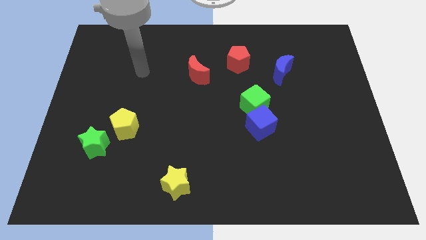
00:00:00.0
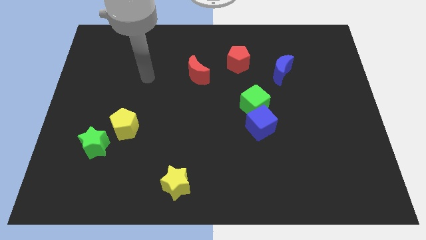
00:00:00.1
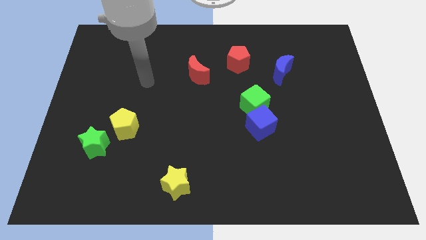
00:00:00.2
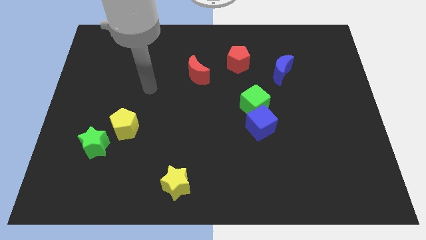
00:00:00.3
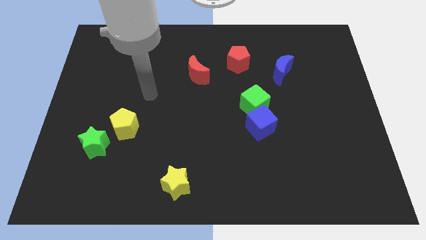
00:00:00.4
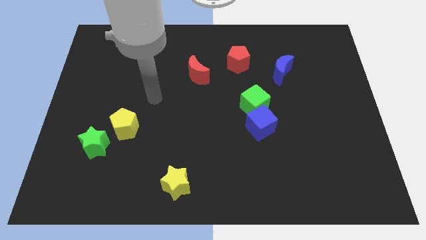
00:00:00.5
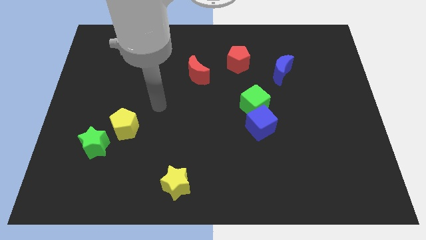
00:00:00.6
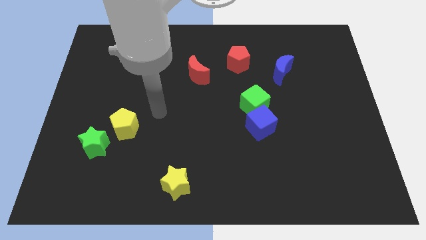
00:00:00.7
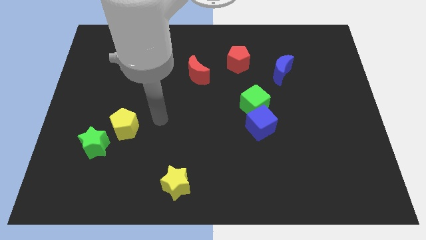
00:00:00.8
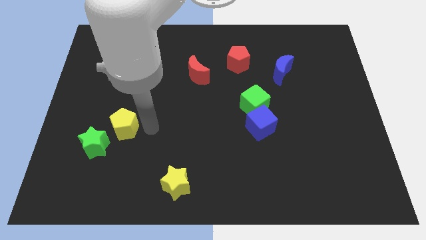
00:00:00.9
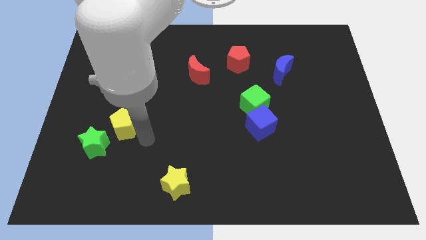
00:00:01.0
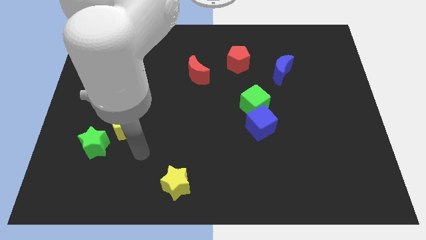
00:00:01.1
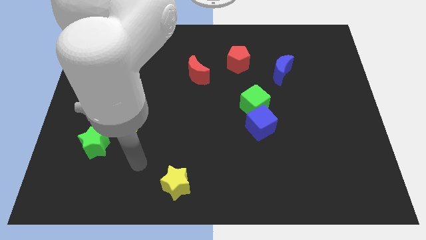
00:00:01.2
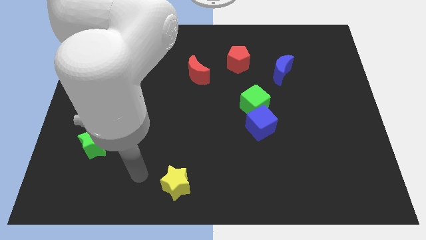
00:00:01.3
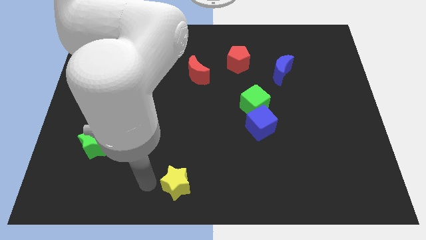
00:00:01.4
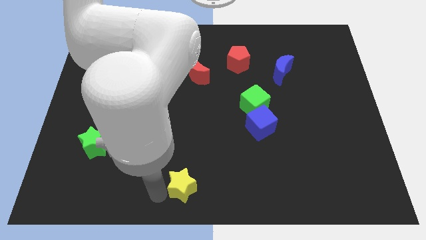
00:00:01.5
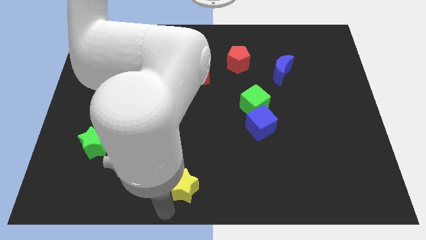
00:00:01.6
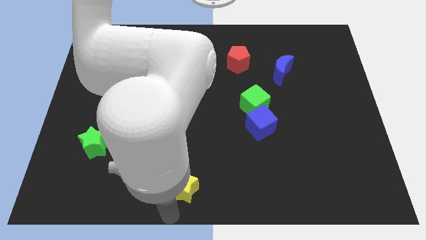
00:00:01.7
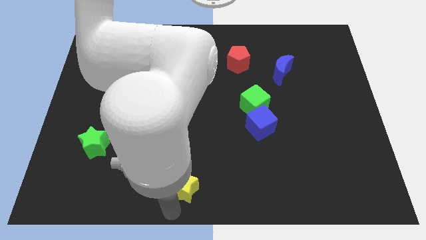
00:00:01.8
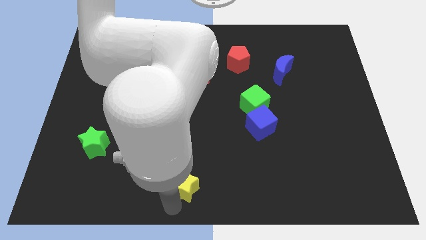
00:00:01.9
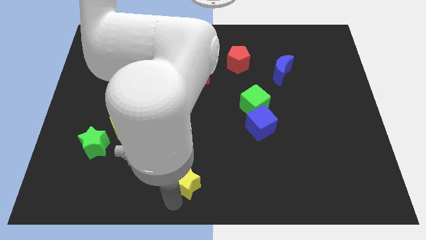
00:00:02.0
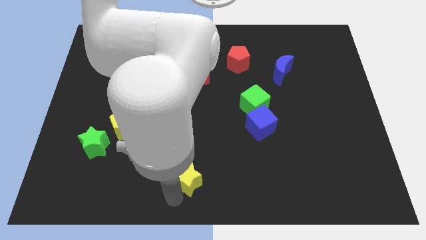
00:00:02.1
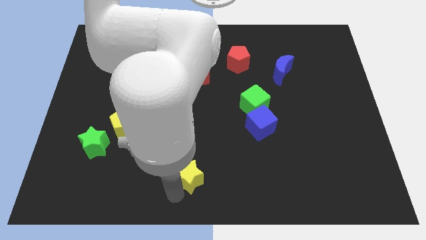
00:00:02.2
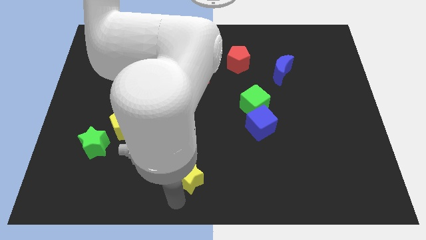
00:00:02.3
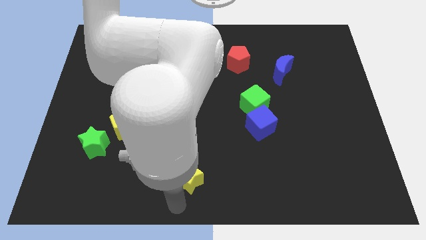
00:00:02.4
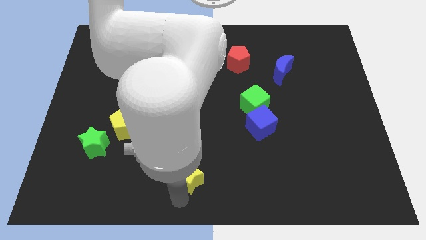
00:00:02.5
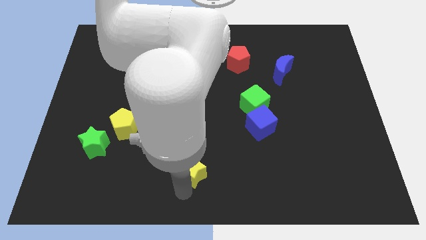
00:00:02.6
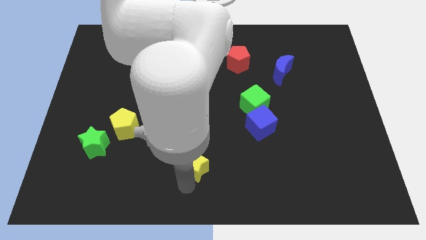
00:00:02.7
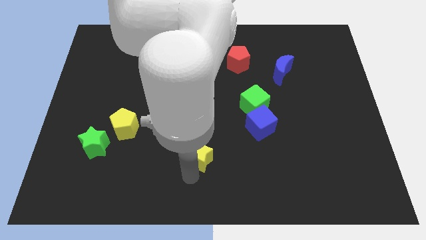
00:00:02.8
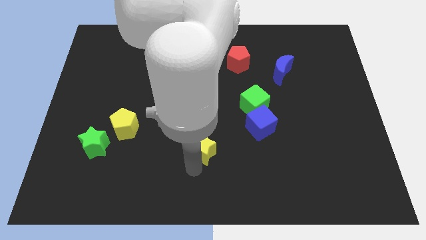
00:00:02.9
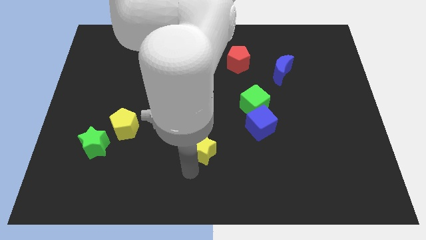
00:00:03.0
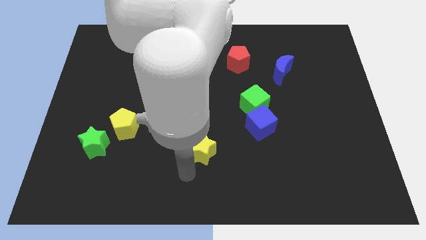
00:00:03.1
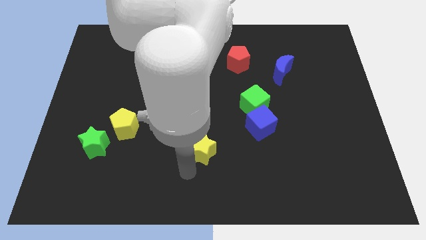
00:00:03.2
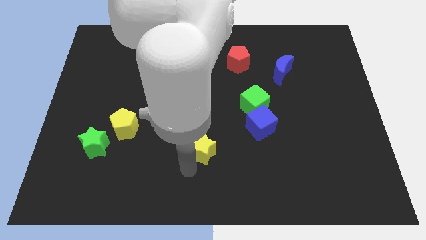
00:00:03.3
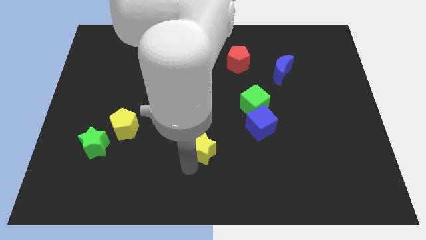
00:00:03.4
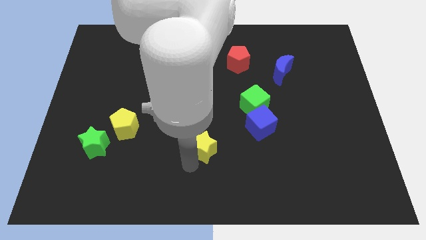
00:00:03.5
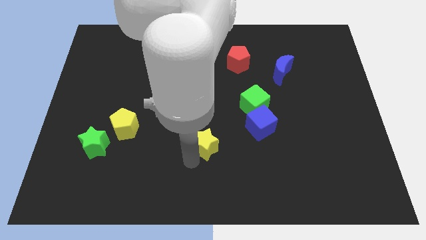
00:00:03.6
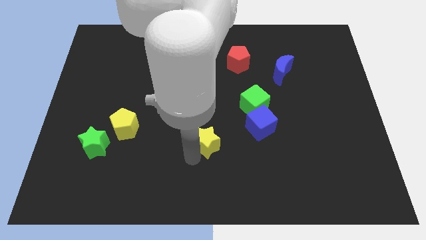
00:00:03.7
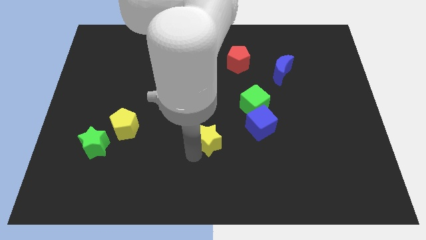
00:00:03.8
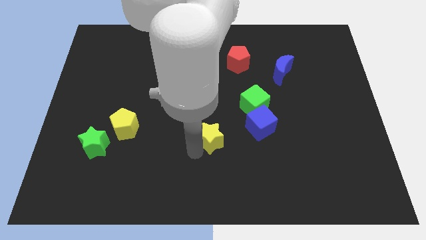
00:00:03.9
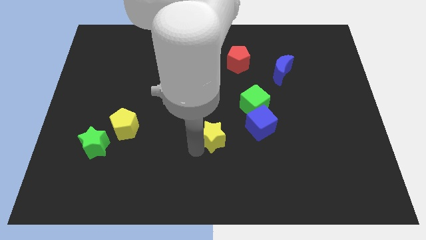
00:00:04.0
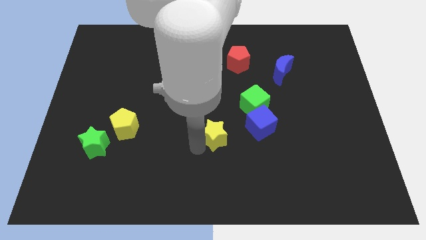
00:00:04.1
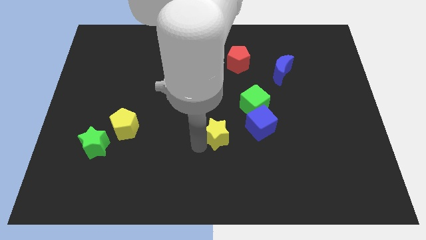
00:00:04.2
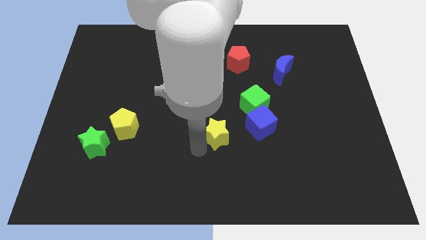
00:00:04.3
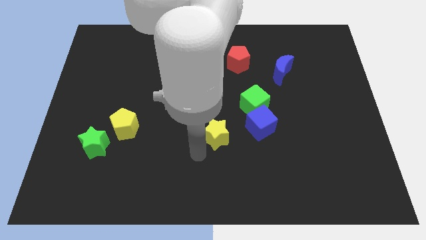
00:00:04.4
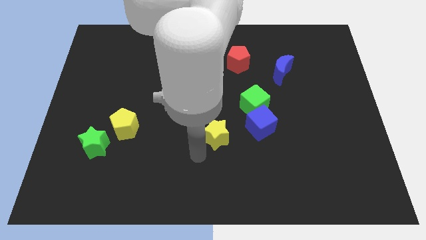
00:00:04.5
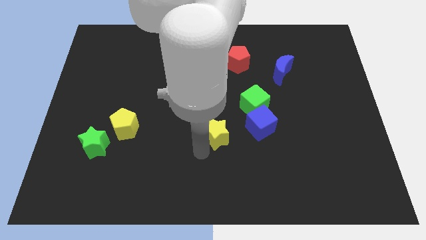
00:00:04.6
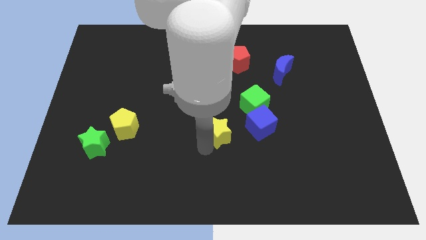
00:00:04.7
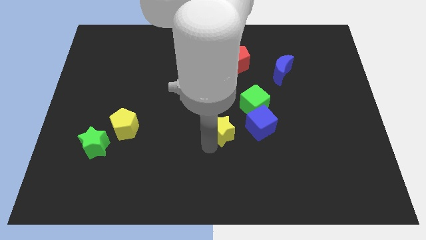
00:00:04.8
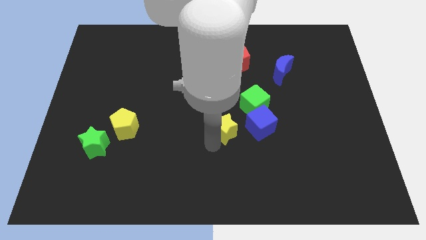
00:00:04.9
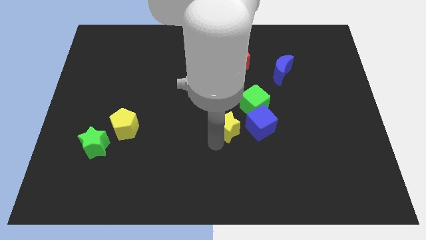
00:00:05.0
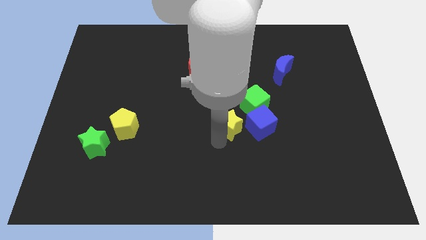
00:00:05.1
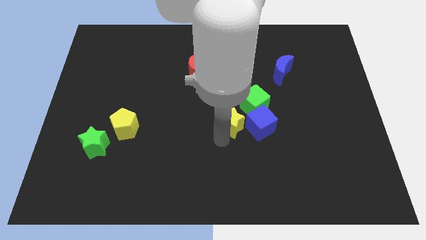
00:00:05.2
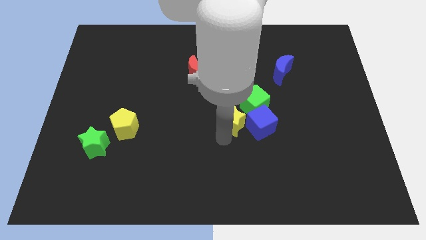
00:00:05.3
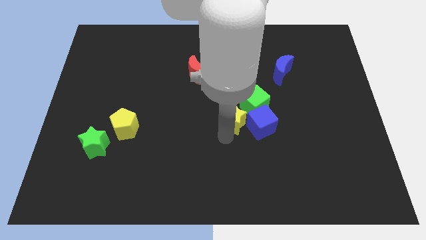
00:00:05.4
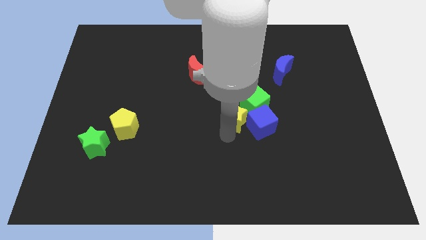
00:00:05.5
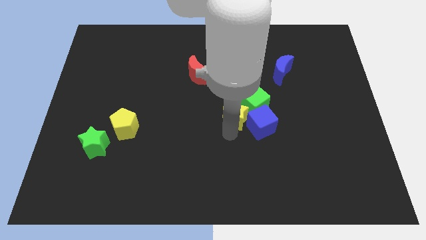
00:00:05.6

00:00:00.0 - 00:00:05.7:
move the yellow star towards the green cube

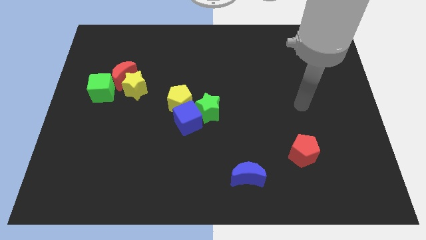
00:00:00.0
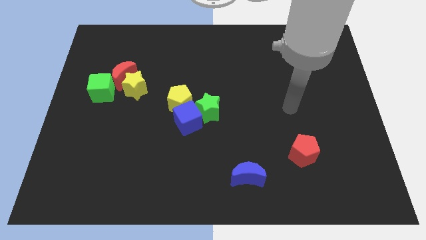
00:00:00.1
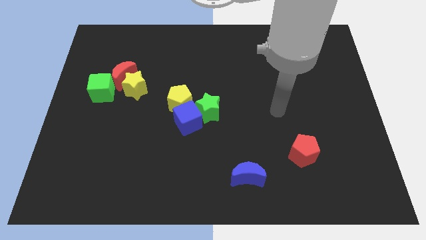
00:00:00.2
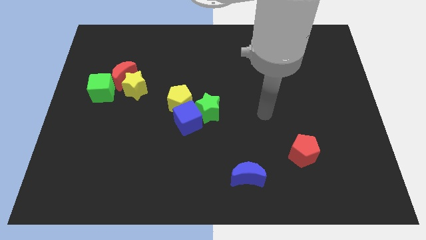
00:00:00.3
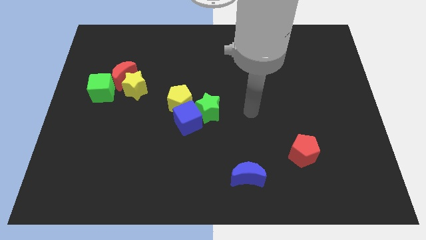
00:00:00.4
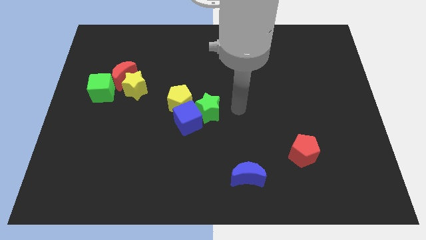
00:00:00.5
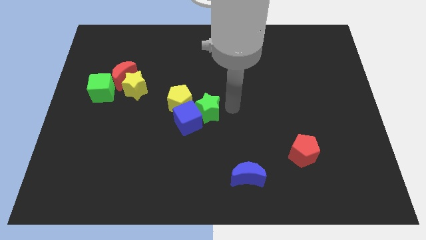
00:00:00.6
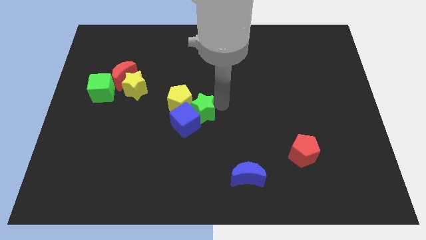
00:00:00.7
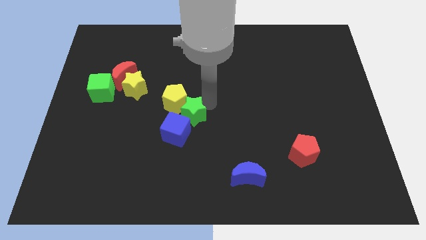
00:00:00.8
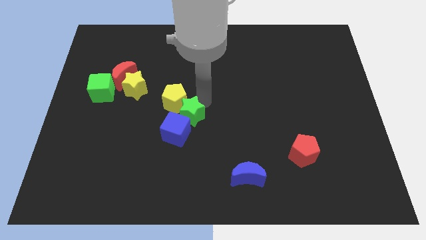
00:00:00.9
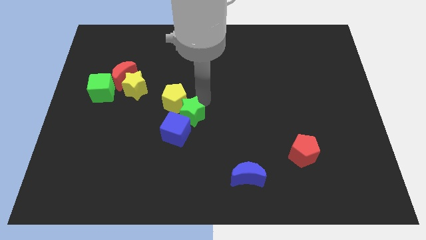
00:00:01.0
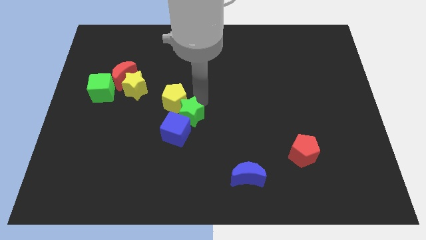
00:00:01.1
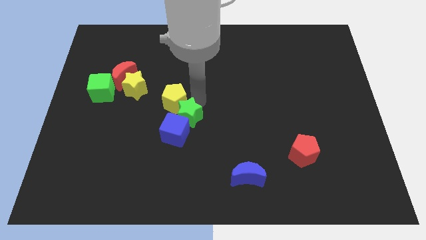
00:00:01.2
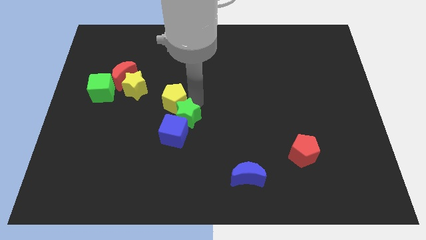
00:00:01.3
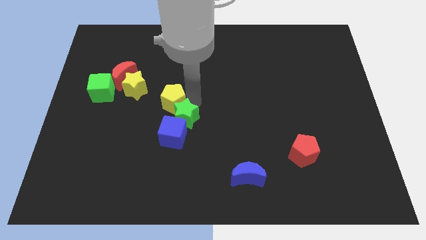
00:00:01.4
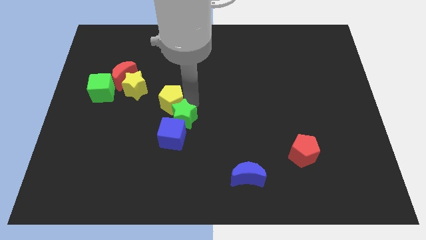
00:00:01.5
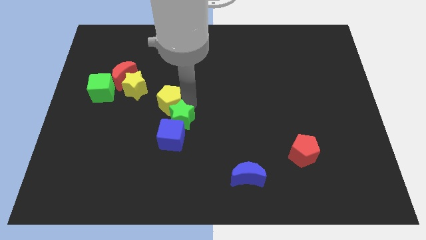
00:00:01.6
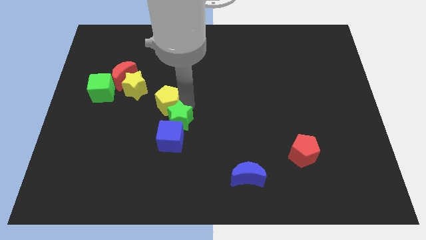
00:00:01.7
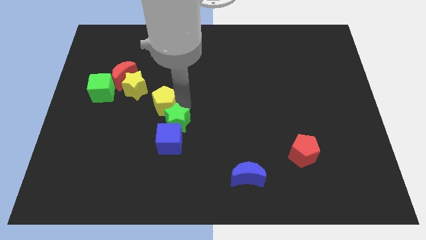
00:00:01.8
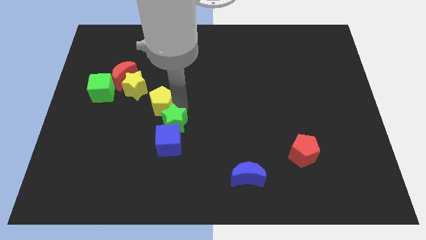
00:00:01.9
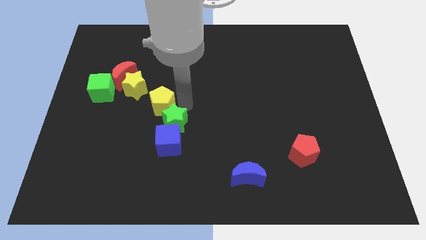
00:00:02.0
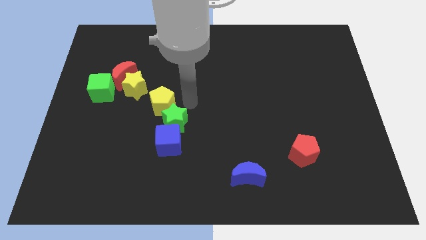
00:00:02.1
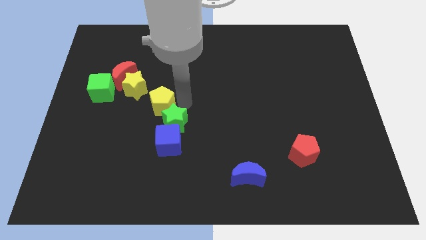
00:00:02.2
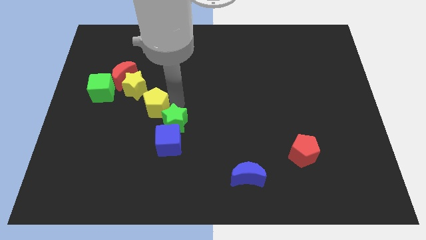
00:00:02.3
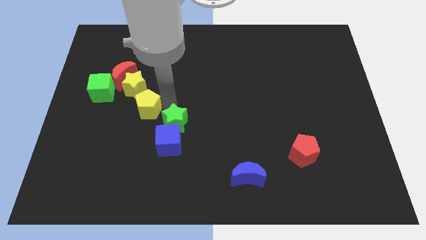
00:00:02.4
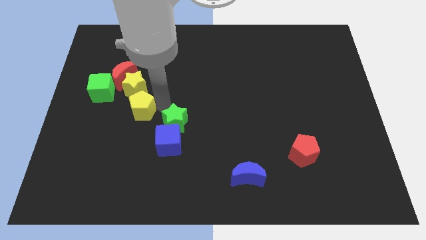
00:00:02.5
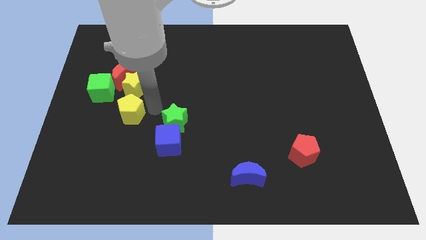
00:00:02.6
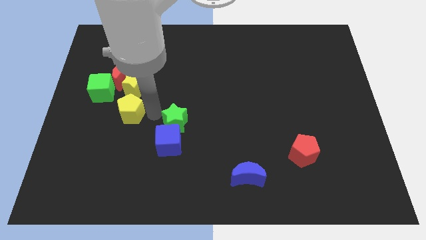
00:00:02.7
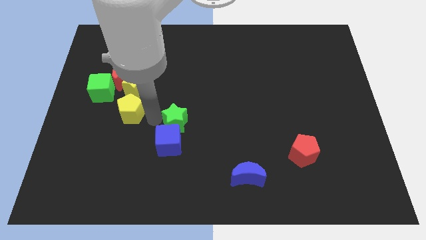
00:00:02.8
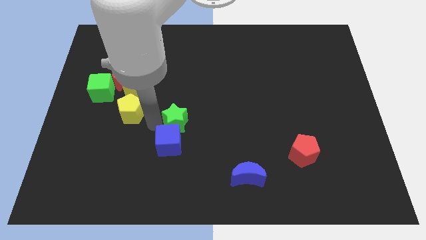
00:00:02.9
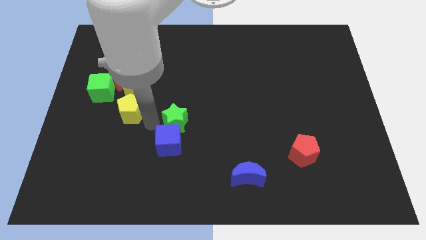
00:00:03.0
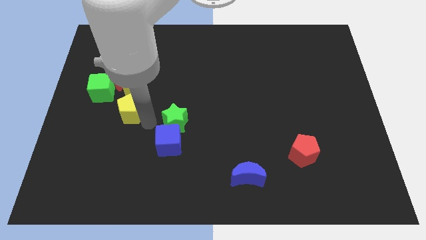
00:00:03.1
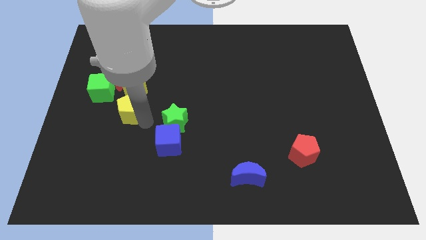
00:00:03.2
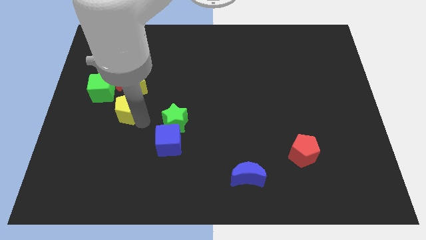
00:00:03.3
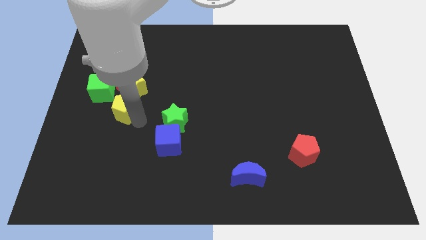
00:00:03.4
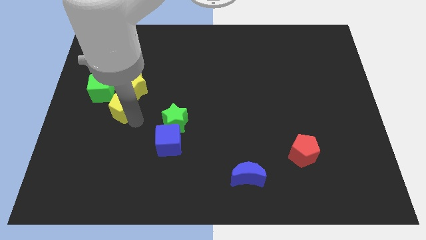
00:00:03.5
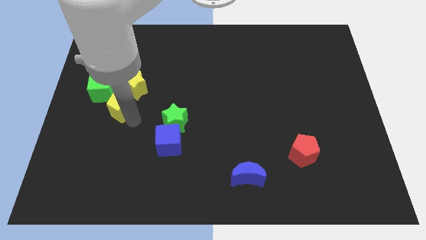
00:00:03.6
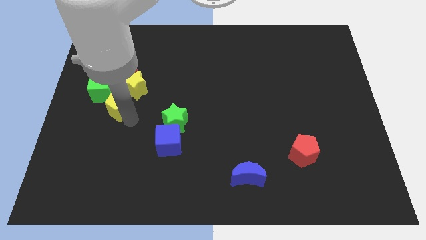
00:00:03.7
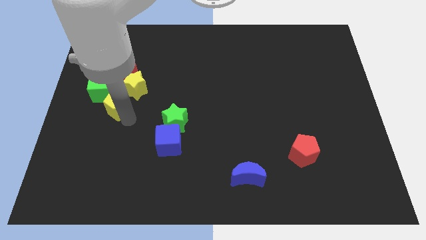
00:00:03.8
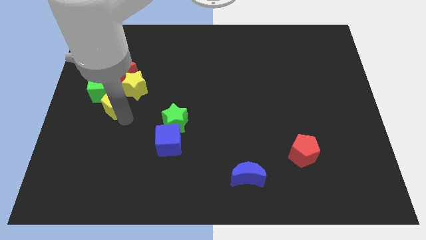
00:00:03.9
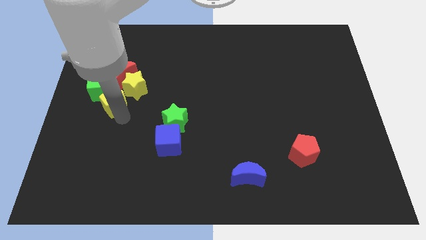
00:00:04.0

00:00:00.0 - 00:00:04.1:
move the yellow pentagon close to the green cube
